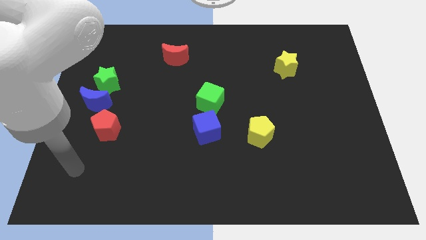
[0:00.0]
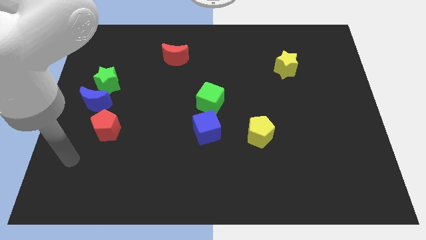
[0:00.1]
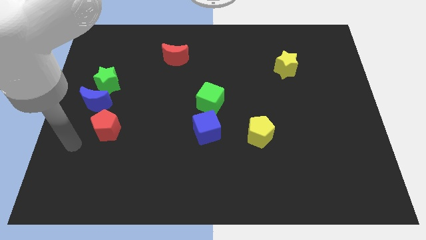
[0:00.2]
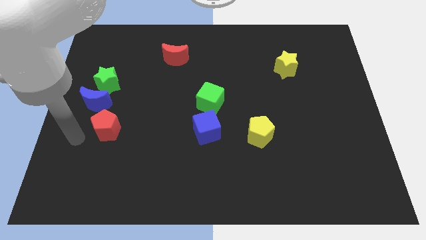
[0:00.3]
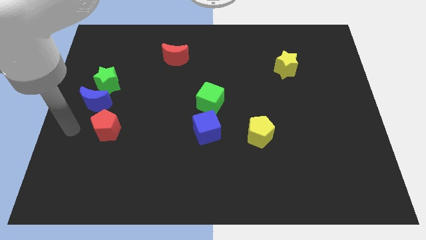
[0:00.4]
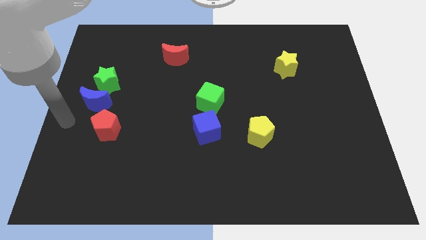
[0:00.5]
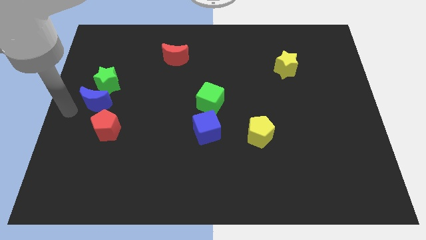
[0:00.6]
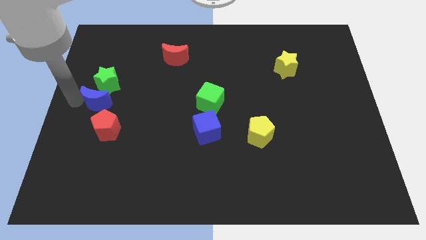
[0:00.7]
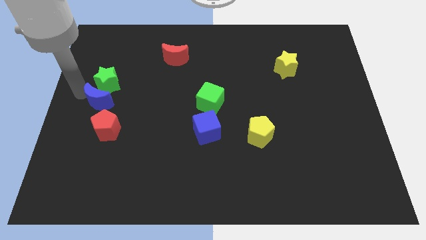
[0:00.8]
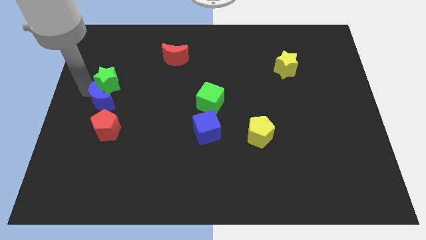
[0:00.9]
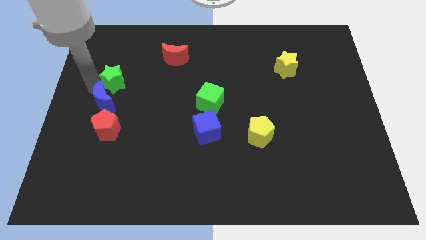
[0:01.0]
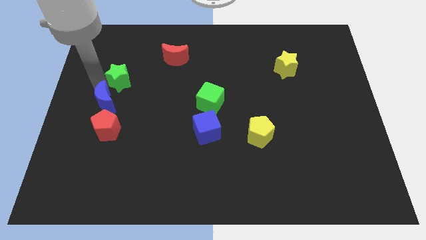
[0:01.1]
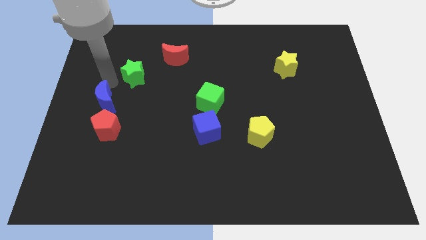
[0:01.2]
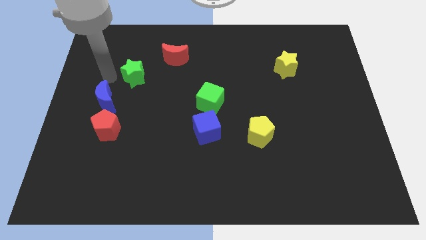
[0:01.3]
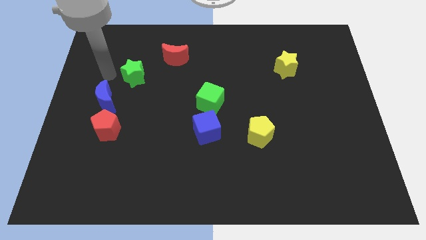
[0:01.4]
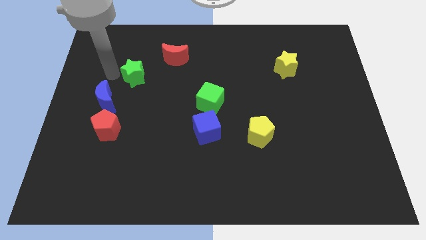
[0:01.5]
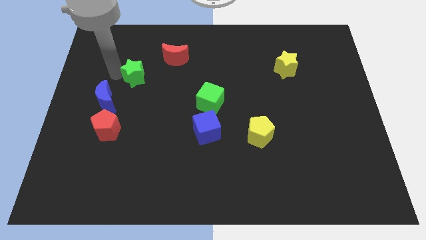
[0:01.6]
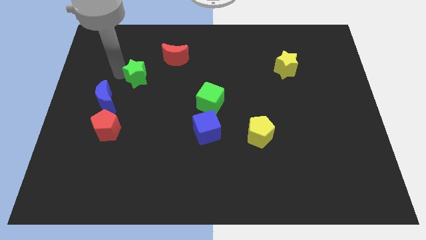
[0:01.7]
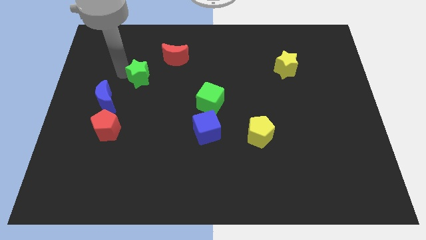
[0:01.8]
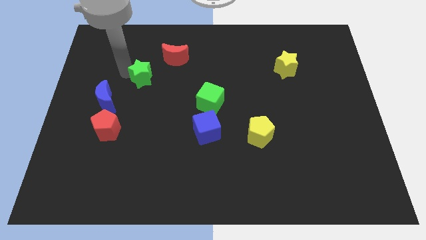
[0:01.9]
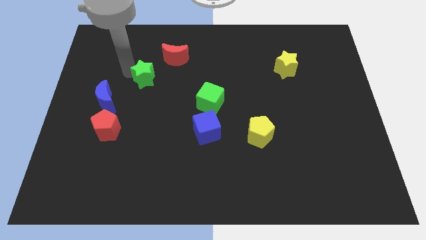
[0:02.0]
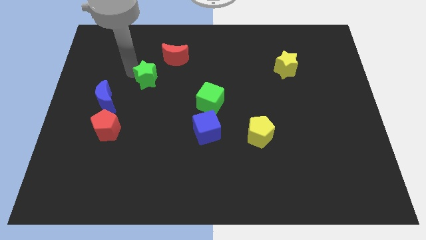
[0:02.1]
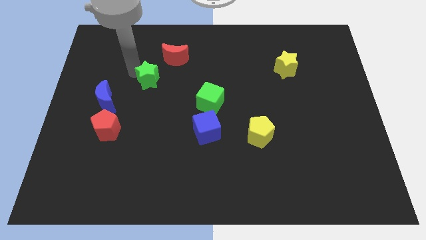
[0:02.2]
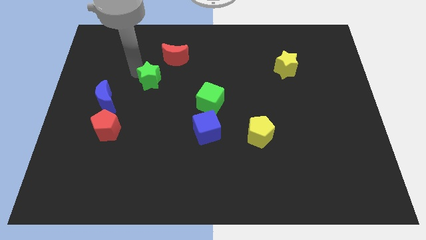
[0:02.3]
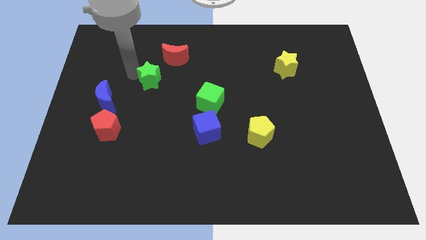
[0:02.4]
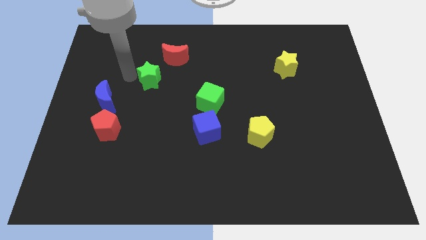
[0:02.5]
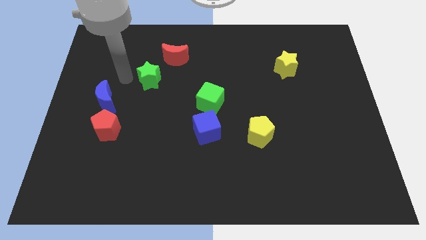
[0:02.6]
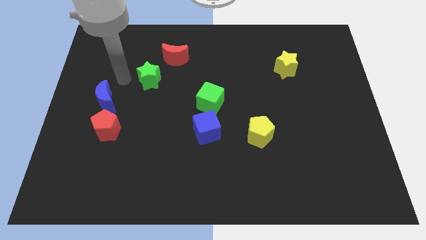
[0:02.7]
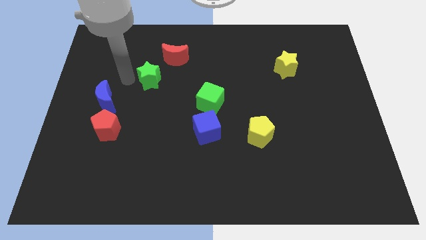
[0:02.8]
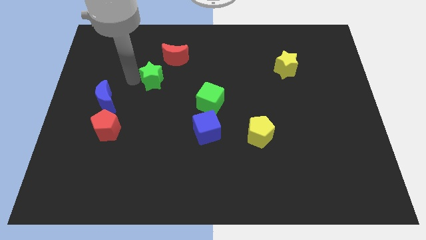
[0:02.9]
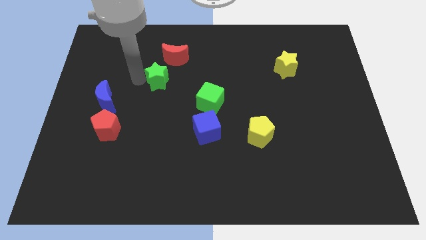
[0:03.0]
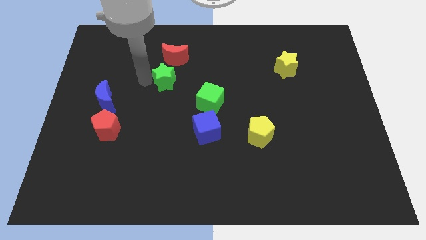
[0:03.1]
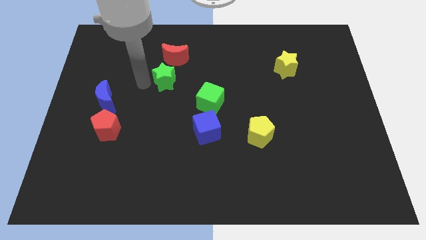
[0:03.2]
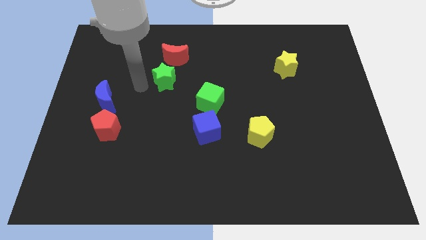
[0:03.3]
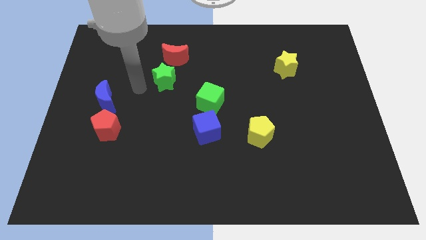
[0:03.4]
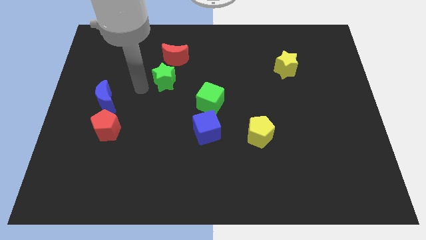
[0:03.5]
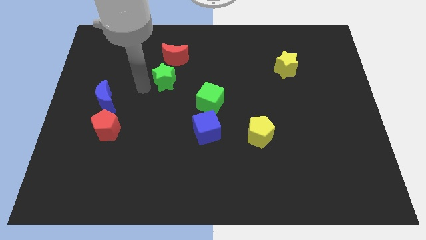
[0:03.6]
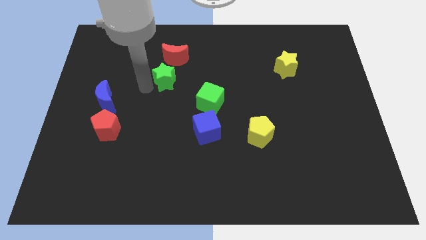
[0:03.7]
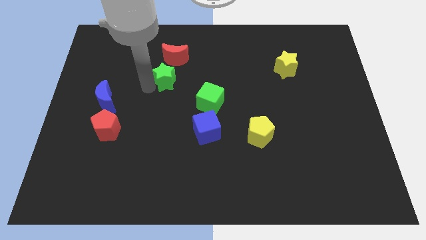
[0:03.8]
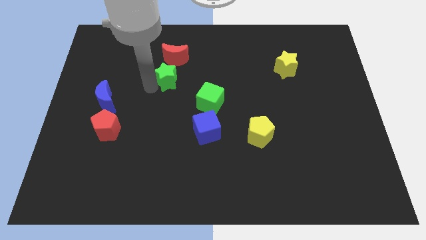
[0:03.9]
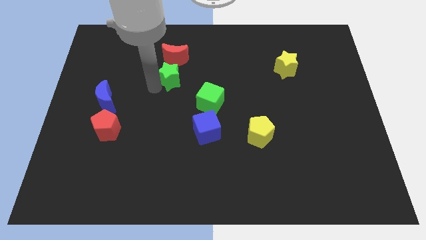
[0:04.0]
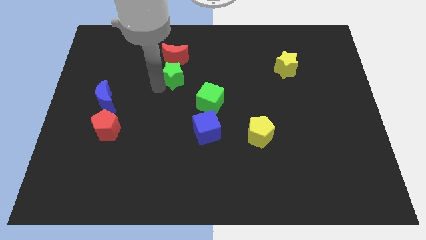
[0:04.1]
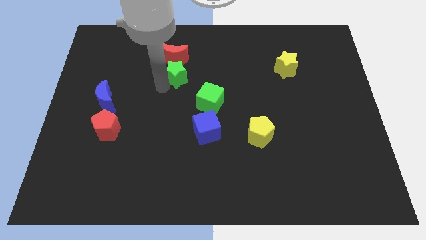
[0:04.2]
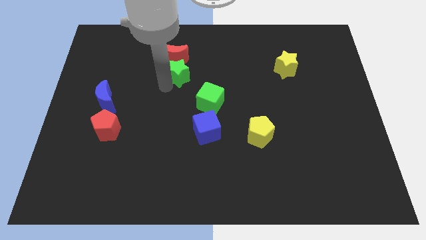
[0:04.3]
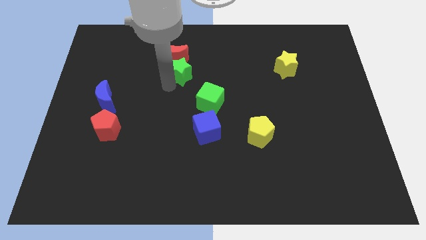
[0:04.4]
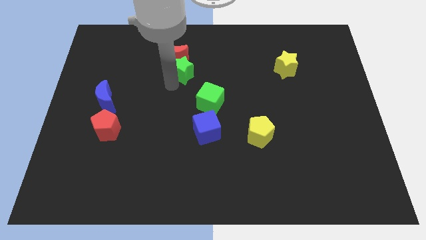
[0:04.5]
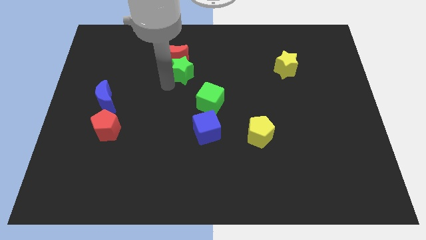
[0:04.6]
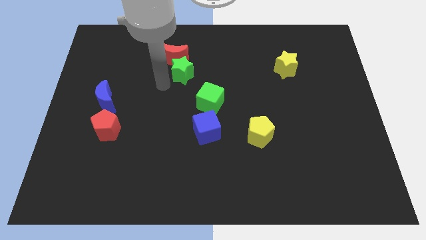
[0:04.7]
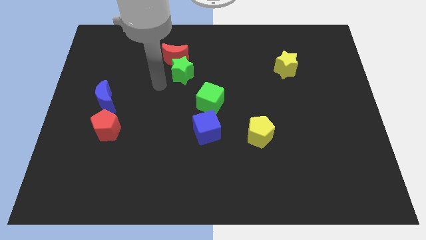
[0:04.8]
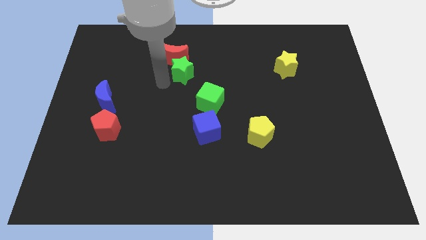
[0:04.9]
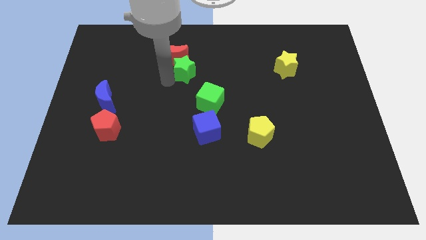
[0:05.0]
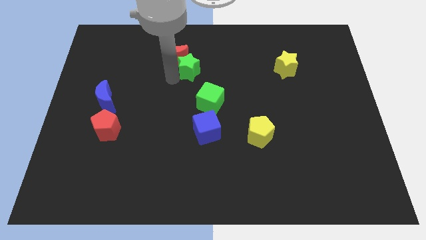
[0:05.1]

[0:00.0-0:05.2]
move the green star to the right of the red moon
